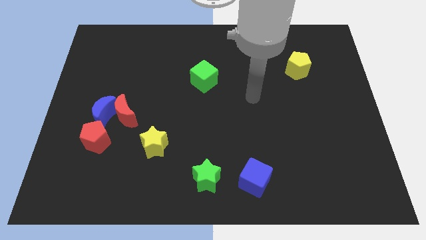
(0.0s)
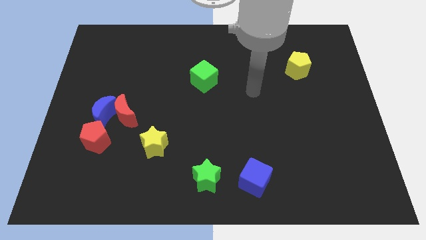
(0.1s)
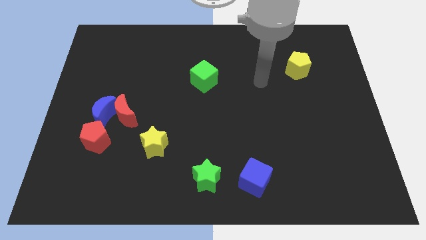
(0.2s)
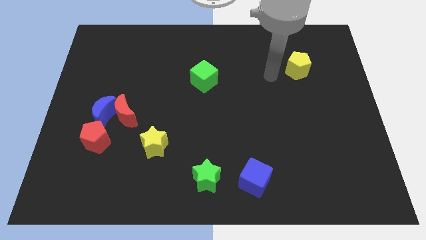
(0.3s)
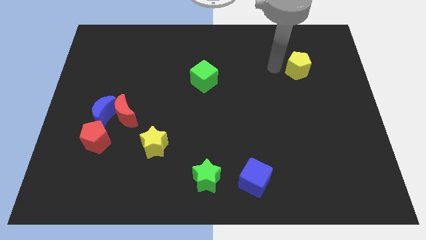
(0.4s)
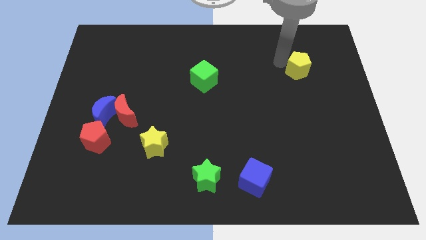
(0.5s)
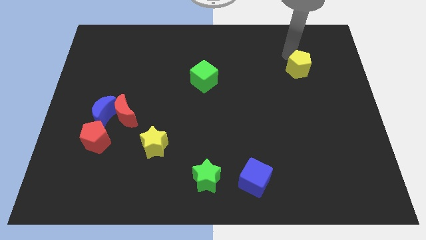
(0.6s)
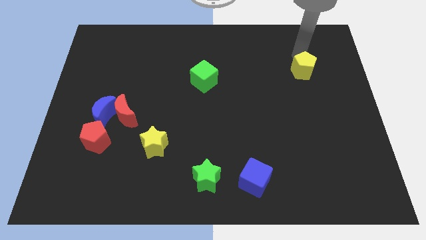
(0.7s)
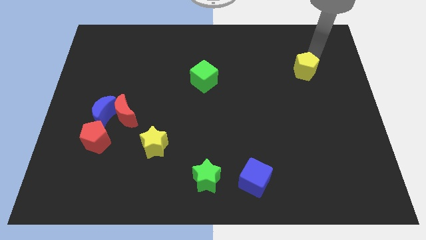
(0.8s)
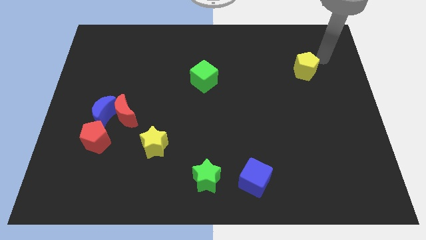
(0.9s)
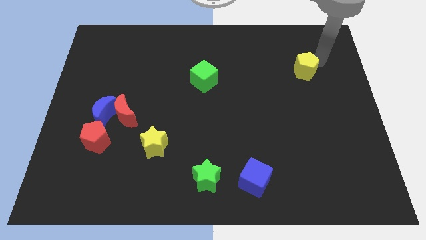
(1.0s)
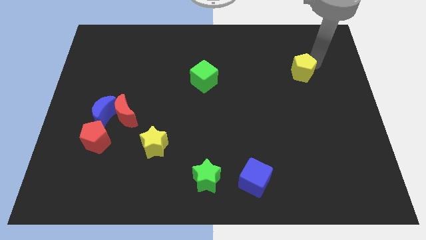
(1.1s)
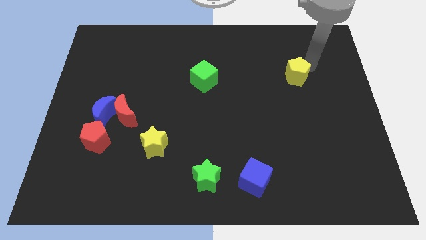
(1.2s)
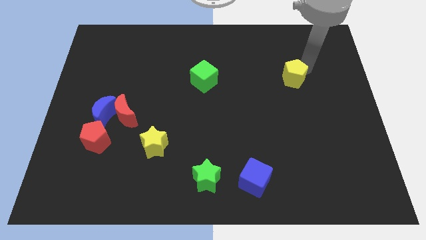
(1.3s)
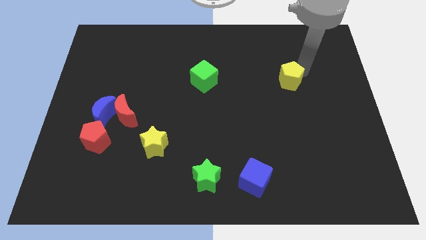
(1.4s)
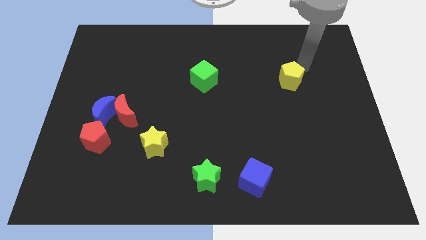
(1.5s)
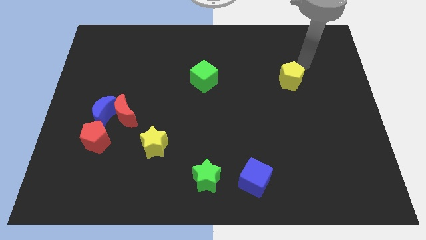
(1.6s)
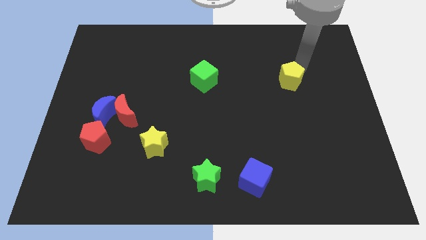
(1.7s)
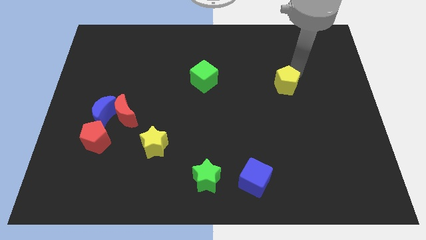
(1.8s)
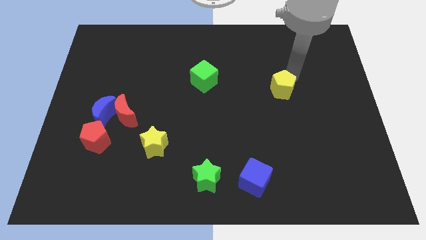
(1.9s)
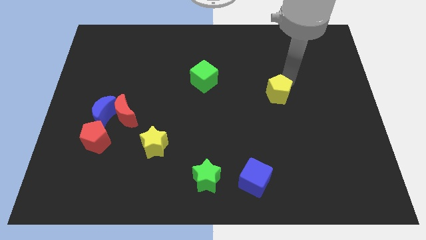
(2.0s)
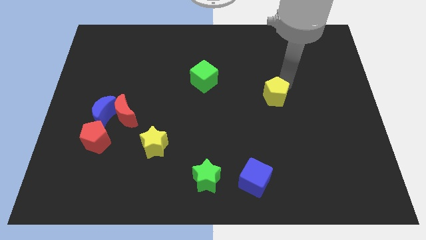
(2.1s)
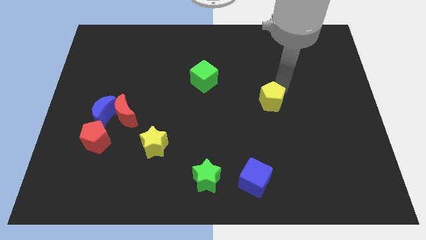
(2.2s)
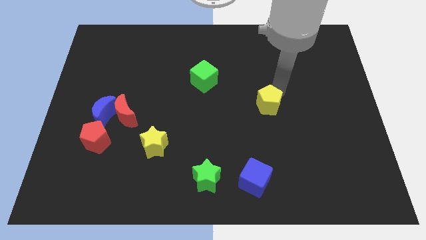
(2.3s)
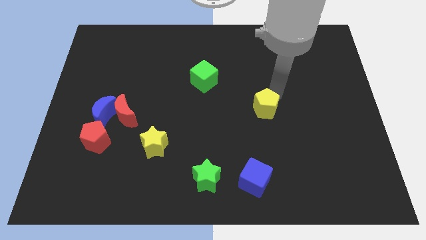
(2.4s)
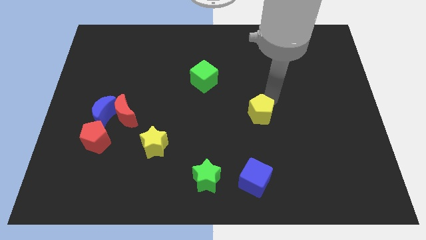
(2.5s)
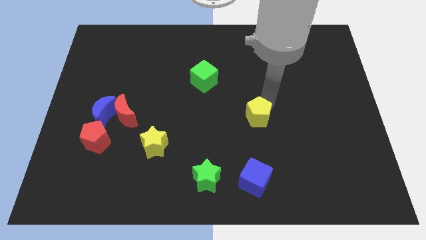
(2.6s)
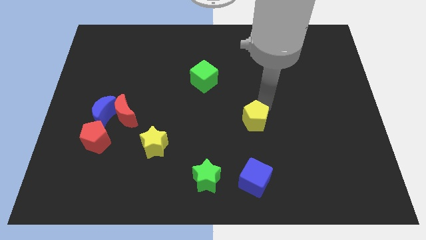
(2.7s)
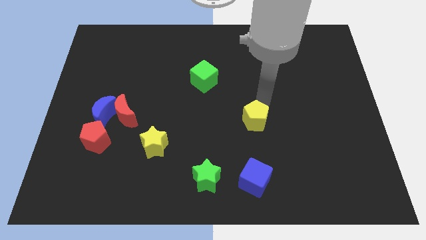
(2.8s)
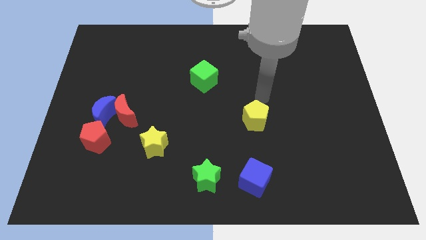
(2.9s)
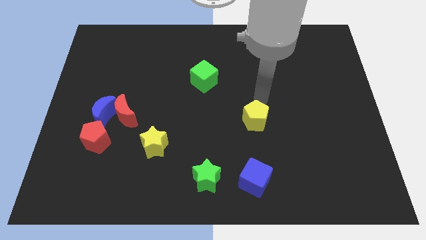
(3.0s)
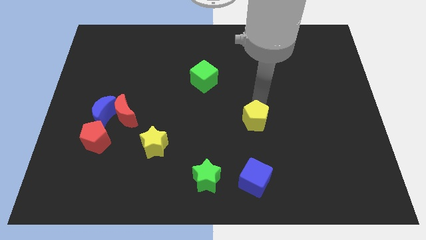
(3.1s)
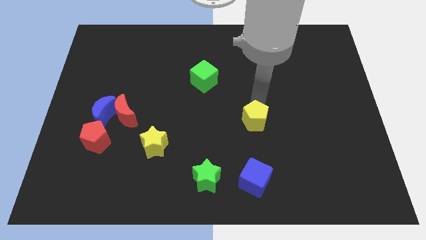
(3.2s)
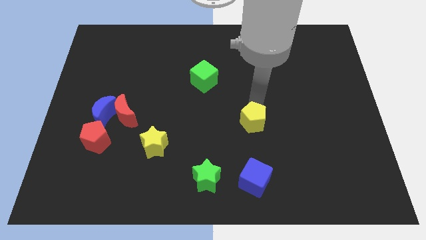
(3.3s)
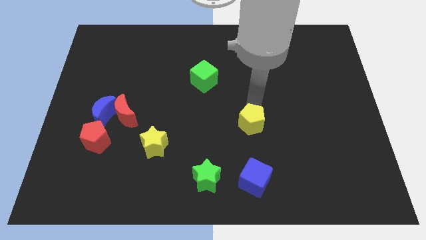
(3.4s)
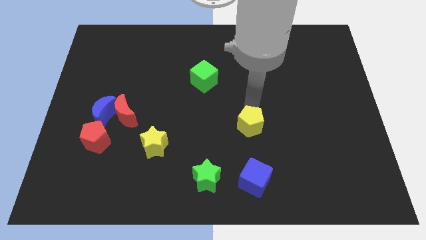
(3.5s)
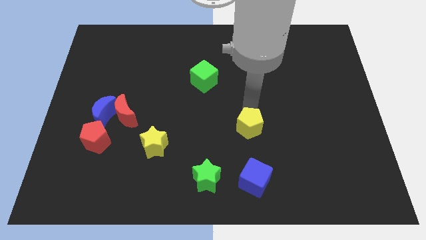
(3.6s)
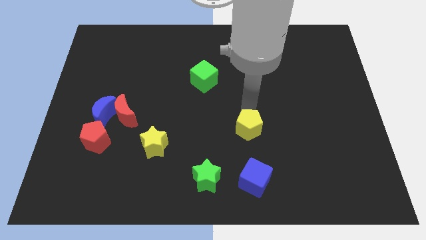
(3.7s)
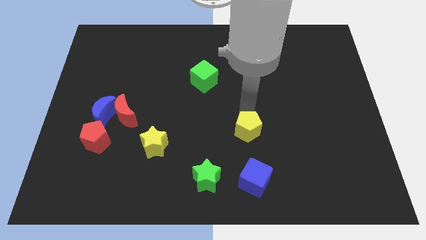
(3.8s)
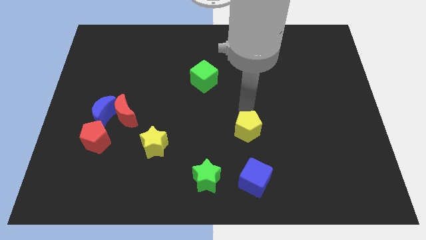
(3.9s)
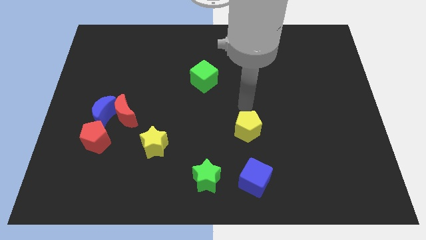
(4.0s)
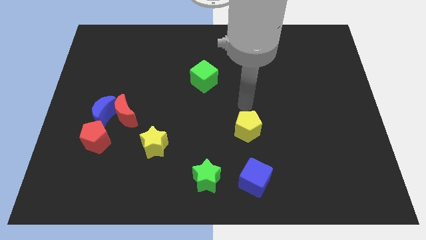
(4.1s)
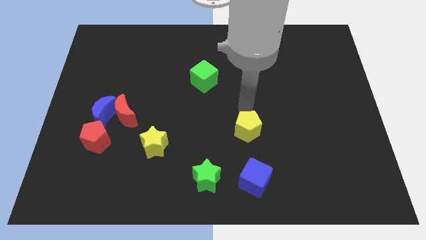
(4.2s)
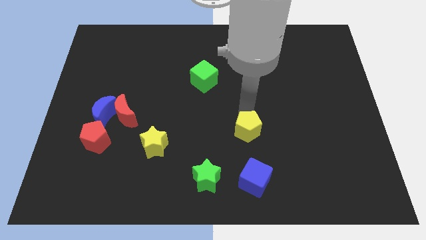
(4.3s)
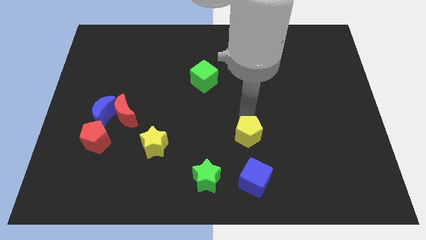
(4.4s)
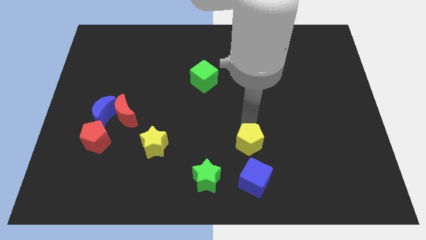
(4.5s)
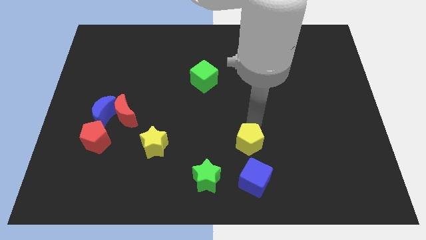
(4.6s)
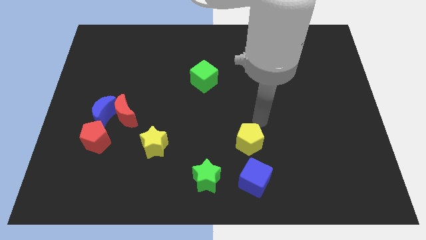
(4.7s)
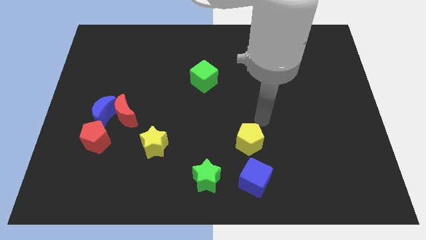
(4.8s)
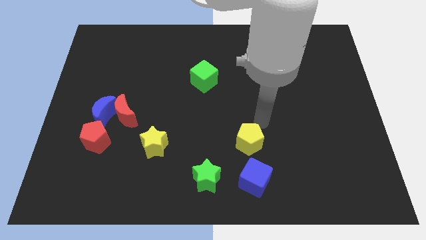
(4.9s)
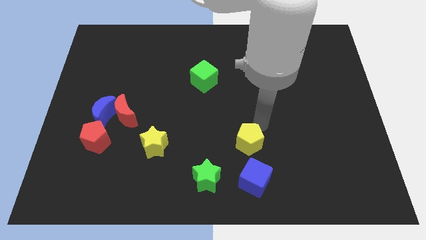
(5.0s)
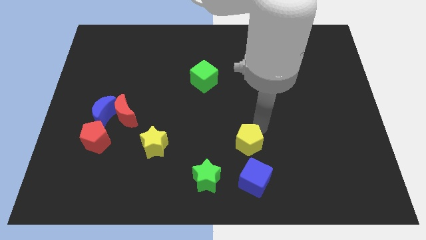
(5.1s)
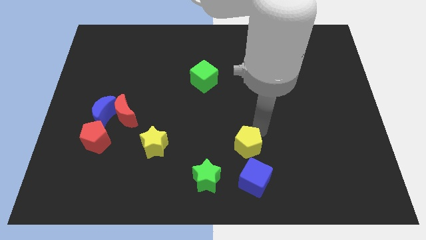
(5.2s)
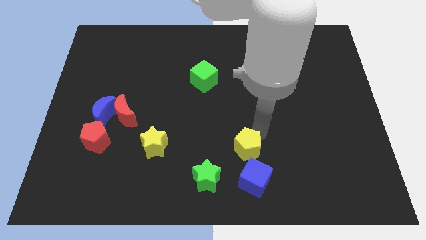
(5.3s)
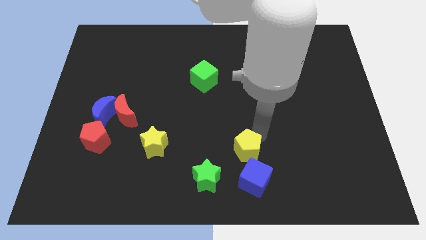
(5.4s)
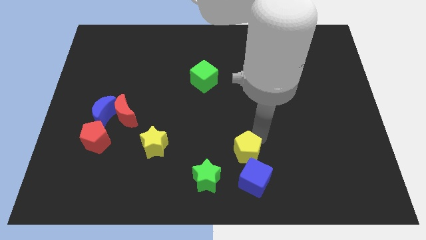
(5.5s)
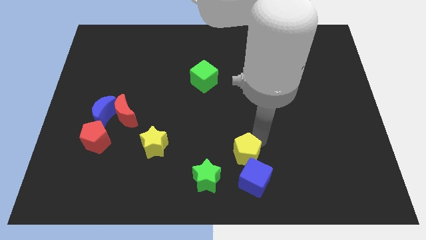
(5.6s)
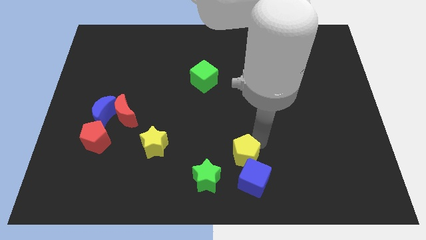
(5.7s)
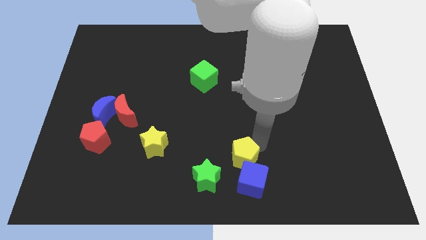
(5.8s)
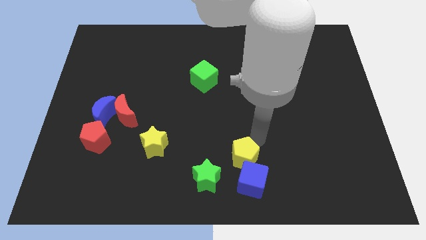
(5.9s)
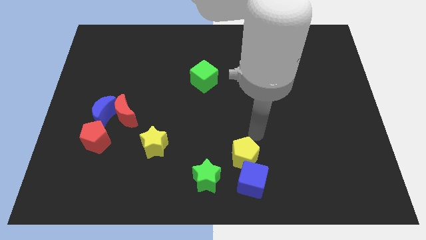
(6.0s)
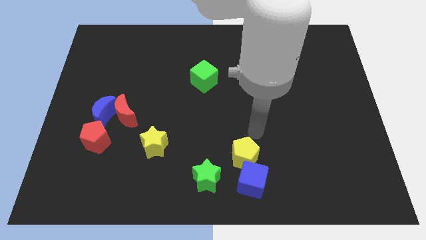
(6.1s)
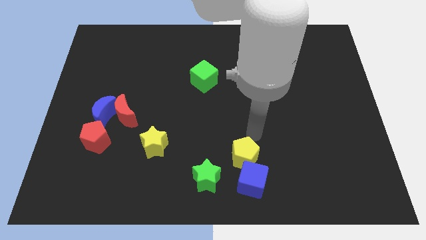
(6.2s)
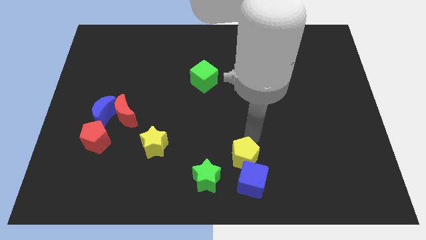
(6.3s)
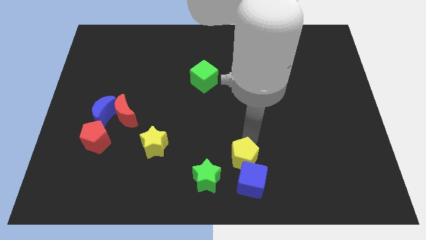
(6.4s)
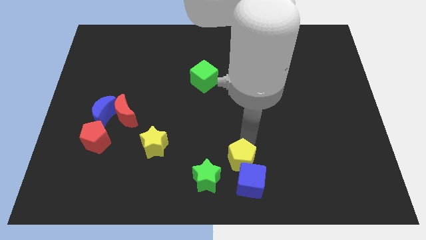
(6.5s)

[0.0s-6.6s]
slide the yellow pentagon to the bottom

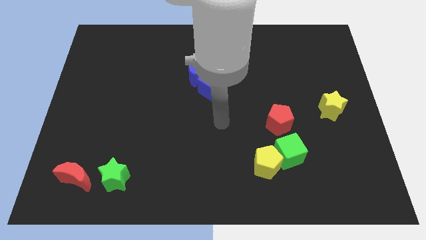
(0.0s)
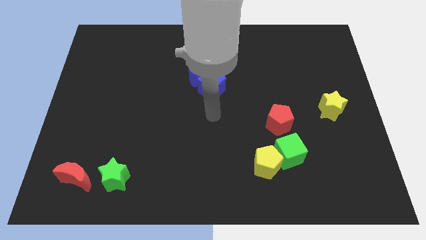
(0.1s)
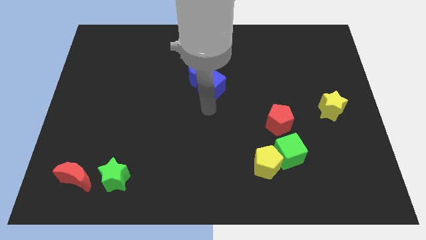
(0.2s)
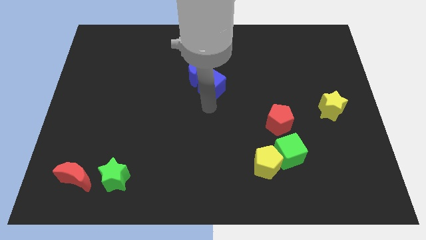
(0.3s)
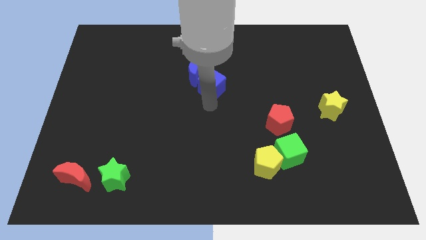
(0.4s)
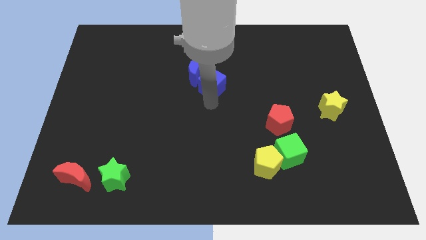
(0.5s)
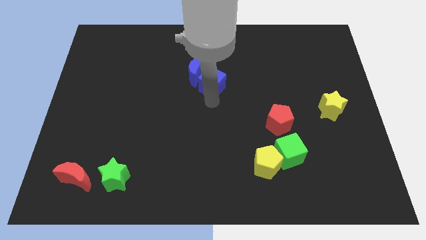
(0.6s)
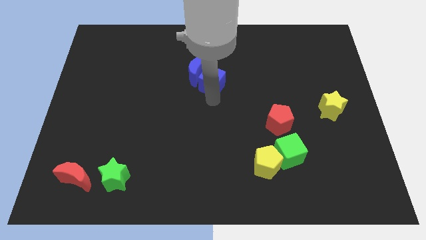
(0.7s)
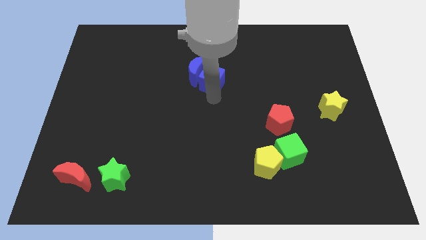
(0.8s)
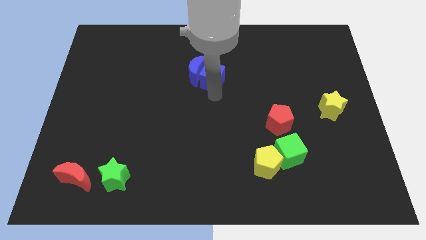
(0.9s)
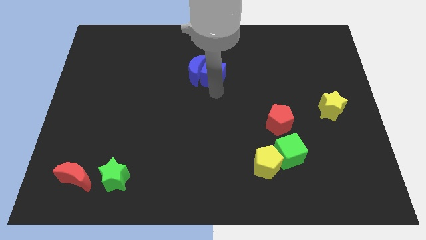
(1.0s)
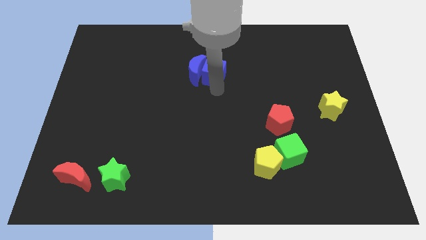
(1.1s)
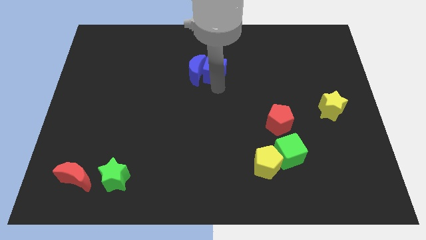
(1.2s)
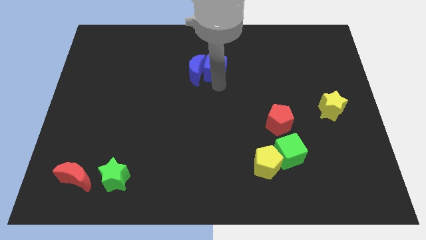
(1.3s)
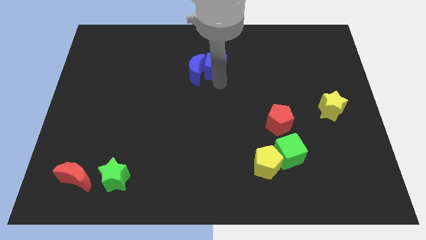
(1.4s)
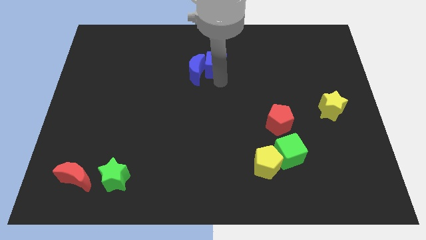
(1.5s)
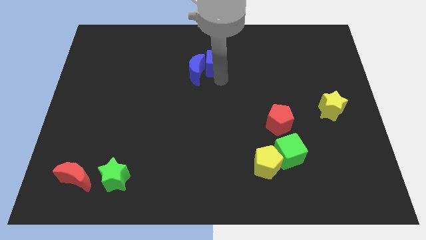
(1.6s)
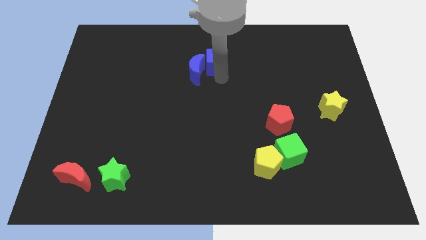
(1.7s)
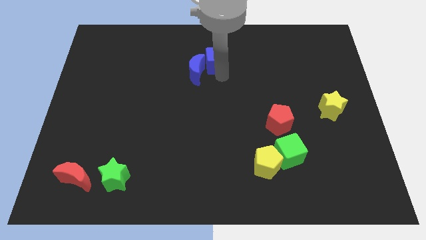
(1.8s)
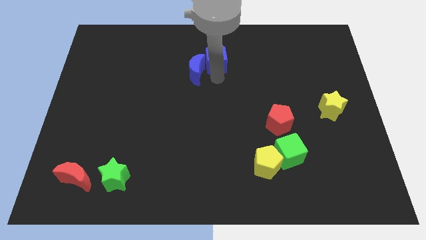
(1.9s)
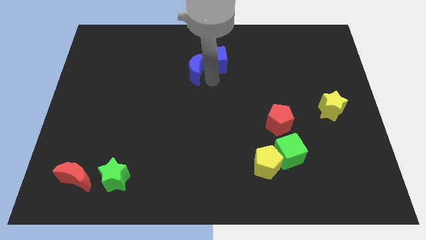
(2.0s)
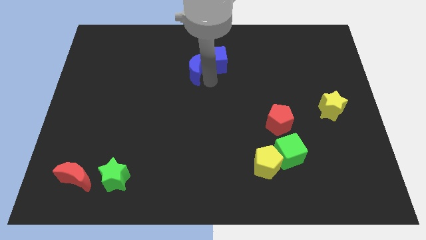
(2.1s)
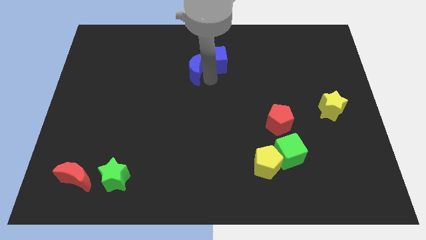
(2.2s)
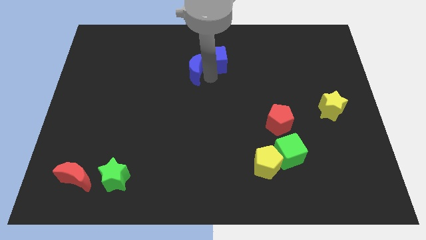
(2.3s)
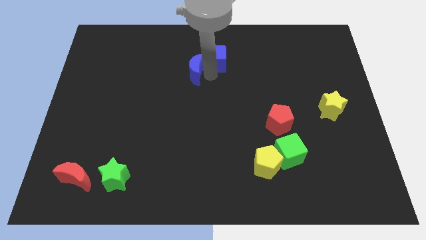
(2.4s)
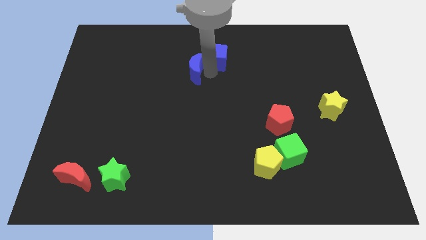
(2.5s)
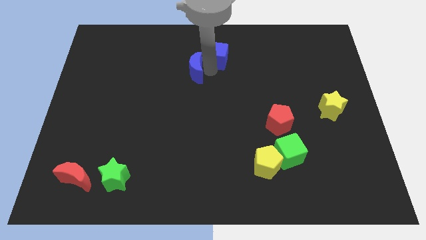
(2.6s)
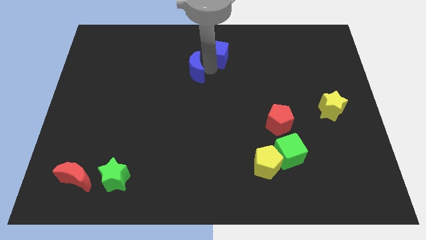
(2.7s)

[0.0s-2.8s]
push the blue cube to the top side
